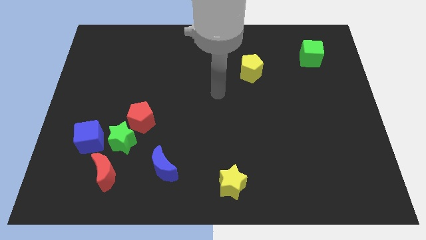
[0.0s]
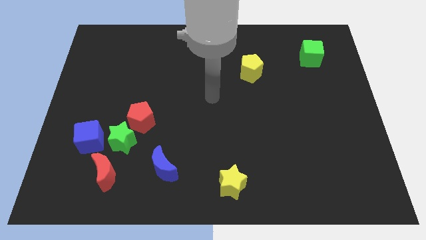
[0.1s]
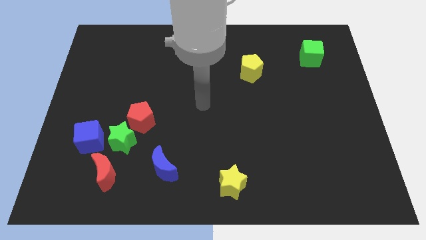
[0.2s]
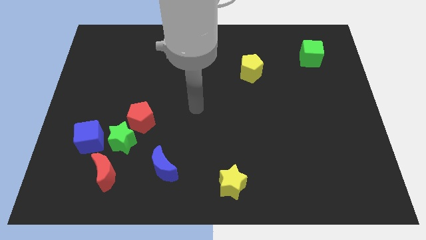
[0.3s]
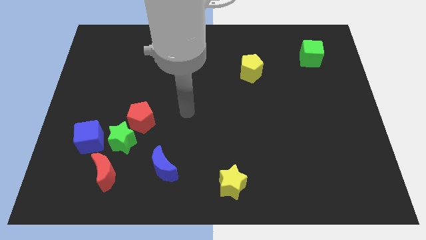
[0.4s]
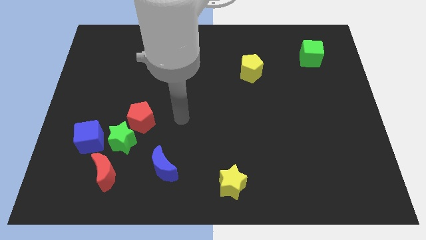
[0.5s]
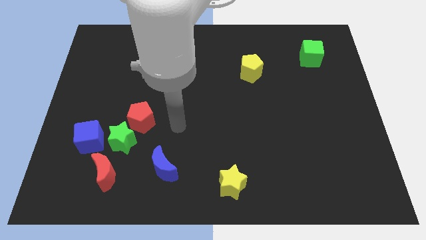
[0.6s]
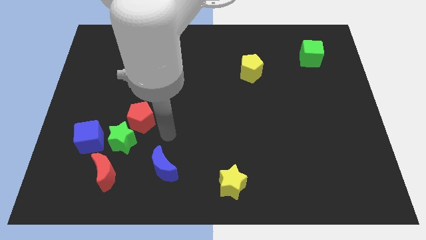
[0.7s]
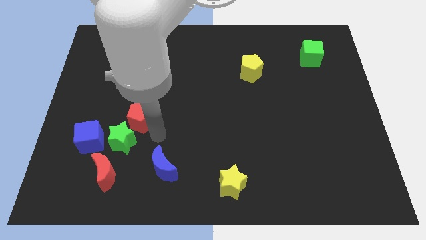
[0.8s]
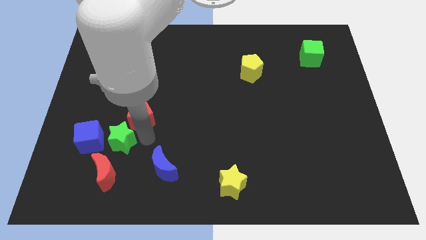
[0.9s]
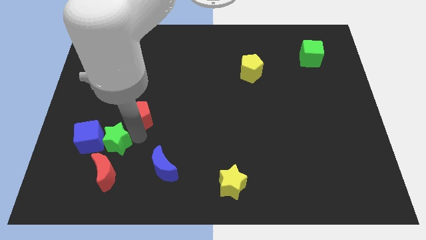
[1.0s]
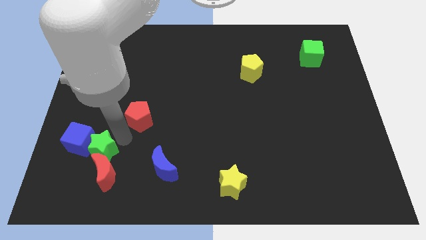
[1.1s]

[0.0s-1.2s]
separate the red pentagon from the green star

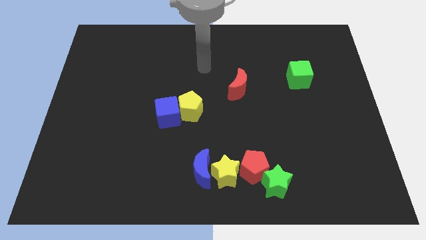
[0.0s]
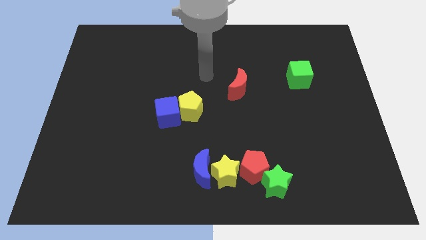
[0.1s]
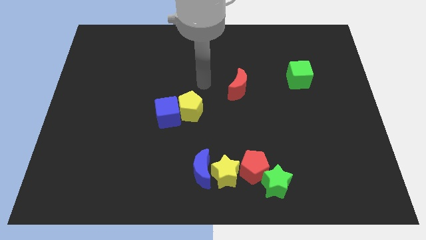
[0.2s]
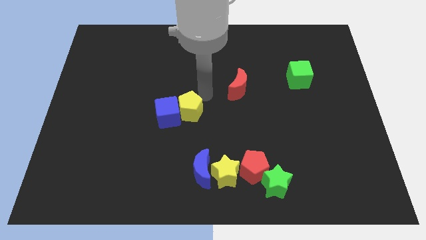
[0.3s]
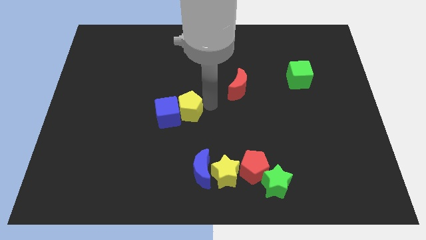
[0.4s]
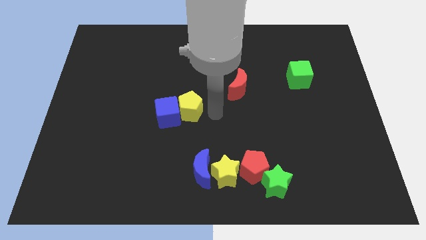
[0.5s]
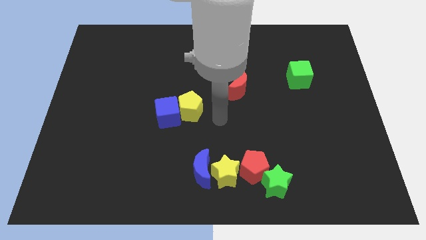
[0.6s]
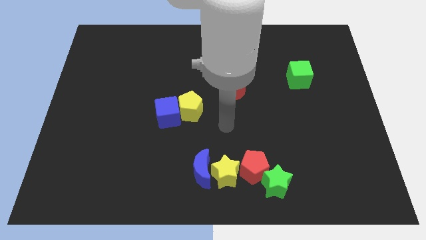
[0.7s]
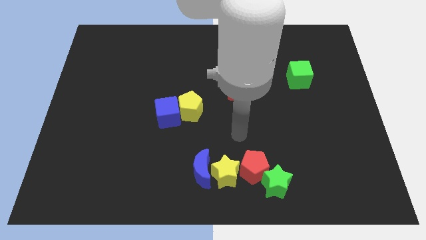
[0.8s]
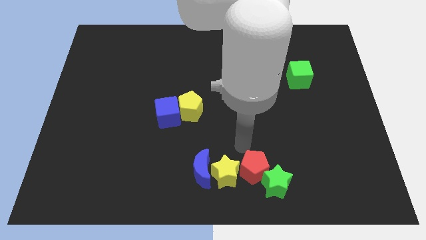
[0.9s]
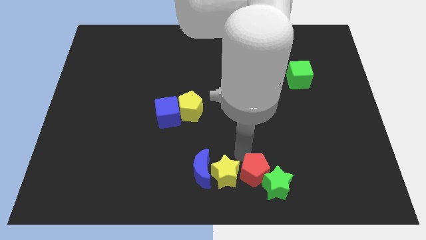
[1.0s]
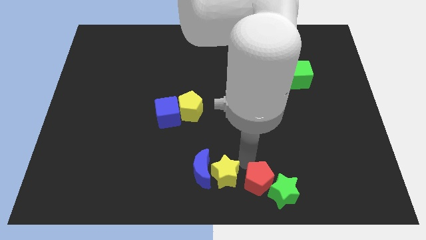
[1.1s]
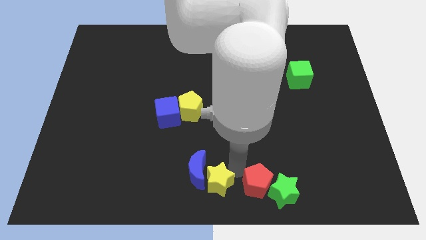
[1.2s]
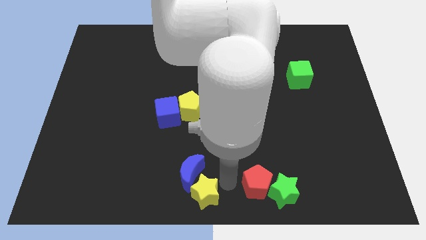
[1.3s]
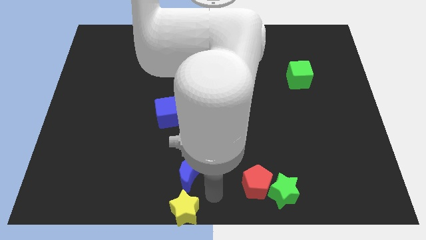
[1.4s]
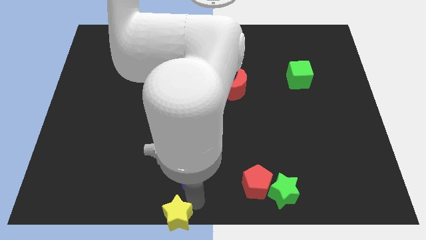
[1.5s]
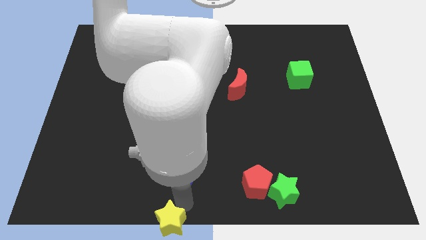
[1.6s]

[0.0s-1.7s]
move the blue moon away from the yellow star

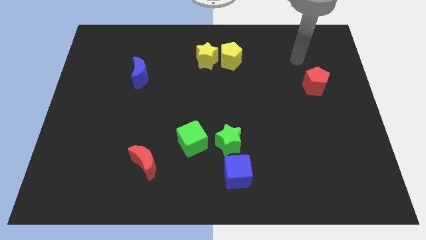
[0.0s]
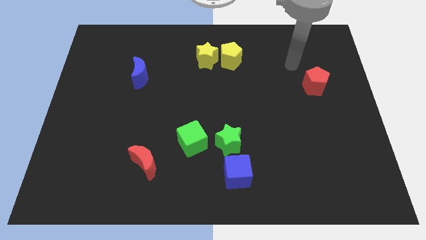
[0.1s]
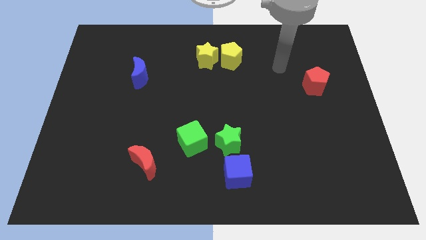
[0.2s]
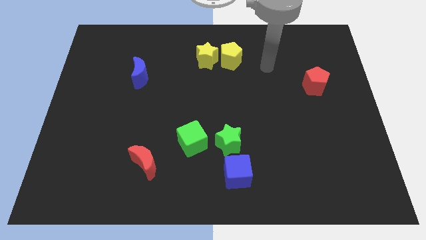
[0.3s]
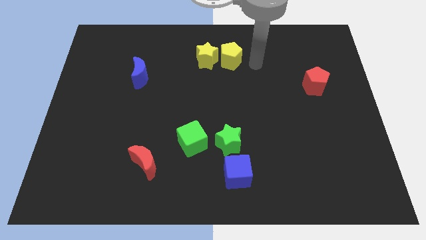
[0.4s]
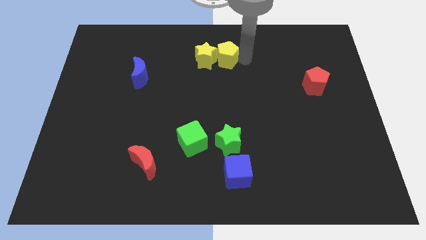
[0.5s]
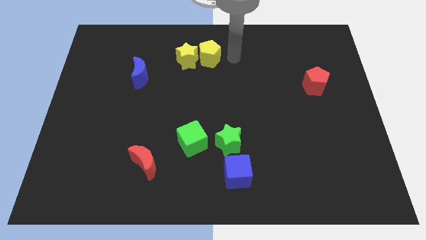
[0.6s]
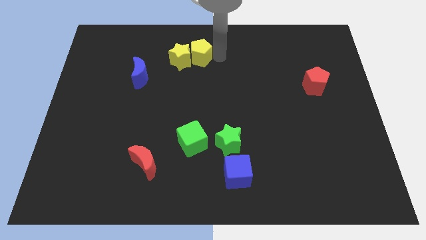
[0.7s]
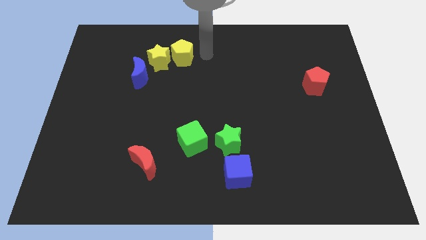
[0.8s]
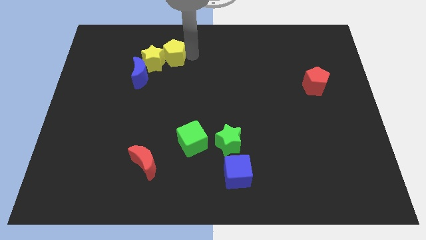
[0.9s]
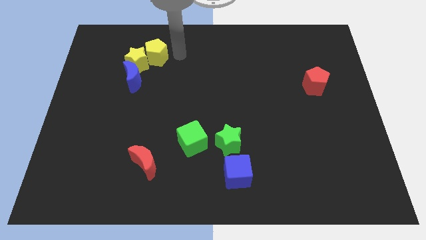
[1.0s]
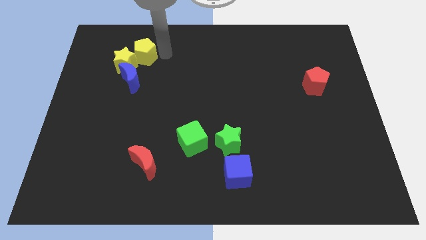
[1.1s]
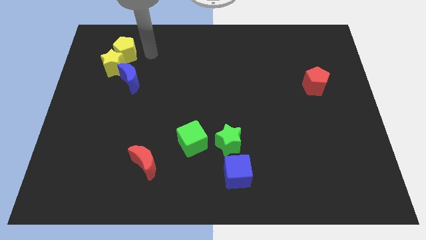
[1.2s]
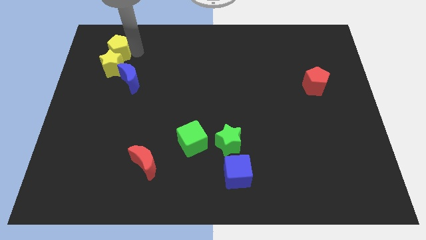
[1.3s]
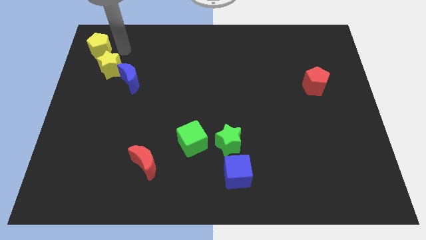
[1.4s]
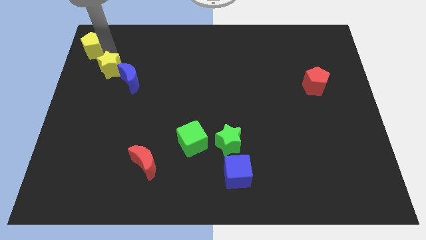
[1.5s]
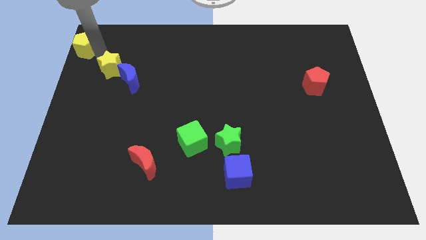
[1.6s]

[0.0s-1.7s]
move the yellow star away from the yellow pentagon

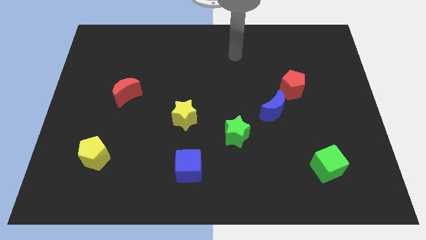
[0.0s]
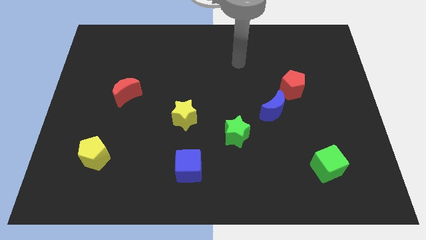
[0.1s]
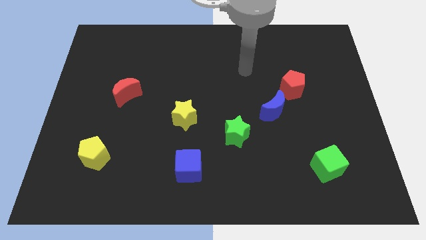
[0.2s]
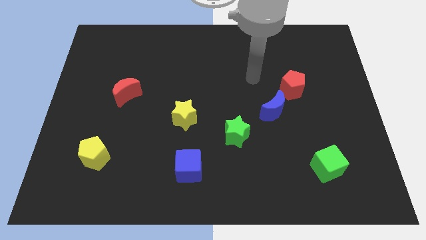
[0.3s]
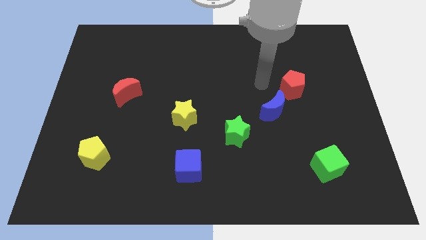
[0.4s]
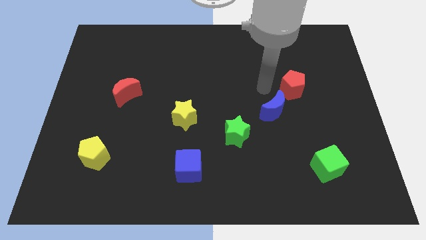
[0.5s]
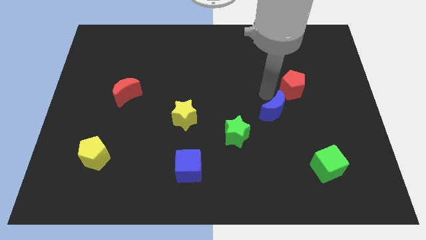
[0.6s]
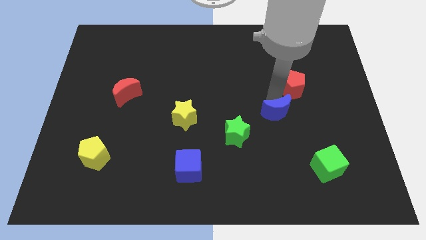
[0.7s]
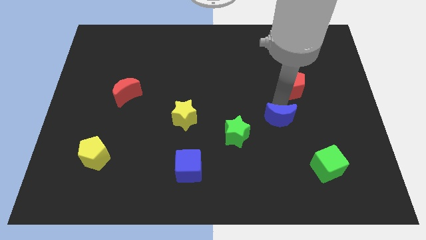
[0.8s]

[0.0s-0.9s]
move the red pentagon away from the blue moon

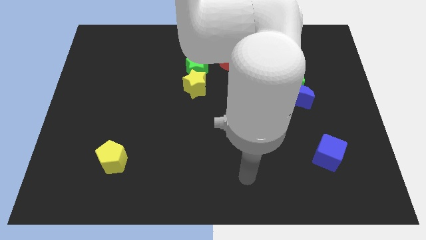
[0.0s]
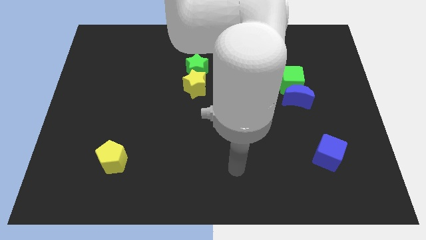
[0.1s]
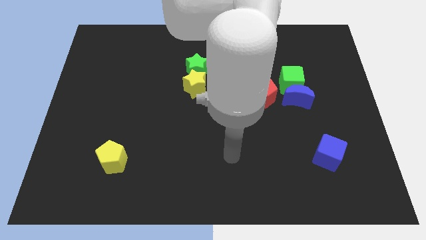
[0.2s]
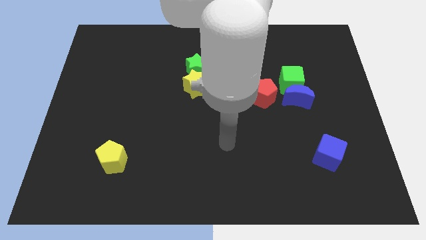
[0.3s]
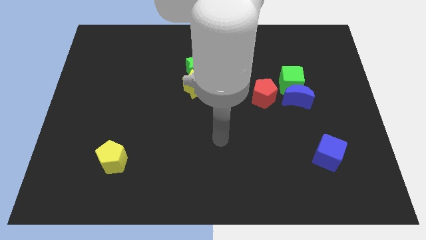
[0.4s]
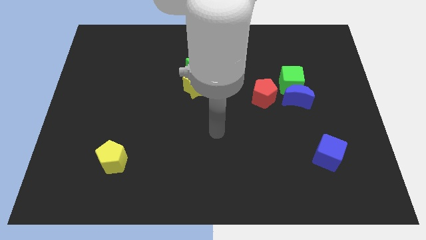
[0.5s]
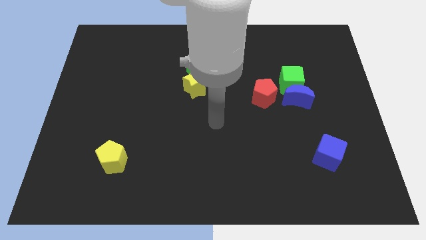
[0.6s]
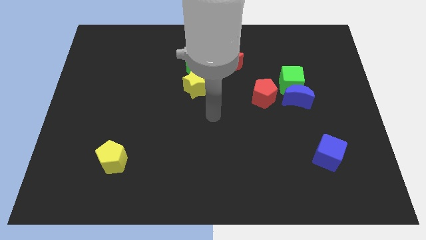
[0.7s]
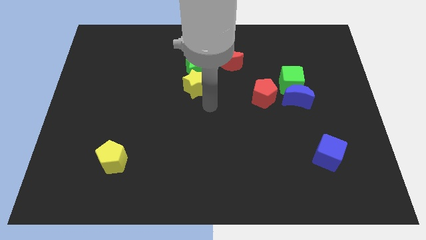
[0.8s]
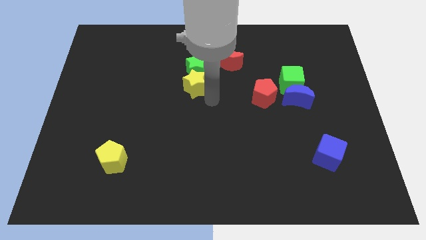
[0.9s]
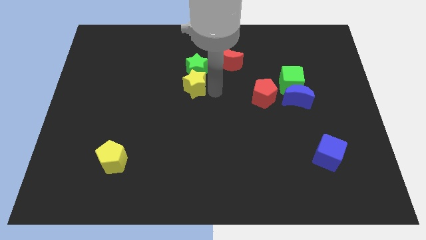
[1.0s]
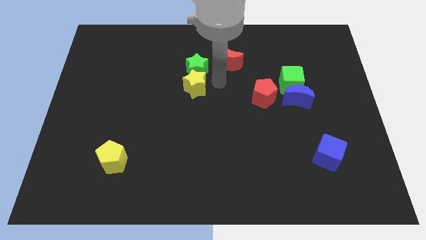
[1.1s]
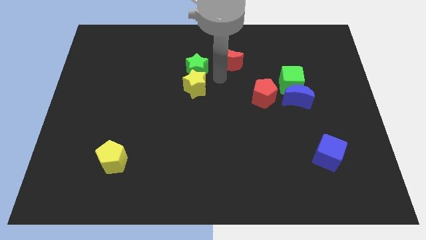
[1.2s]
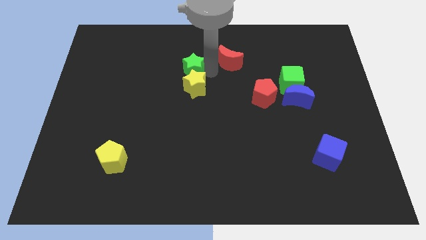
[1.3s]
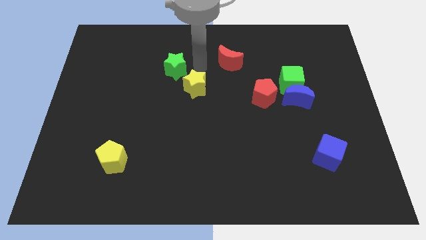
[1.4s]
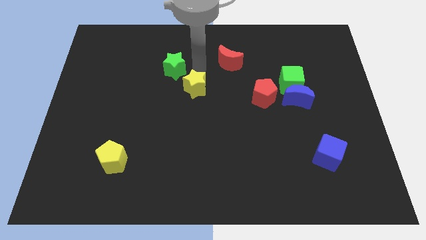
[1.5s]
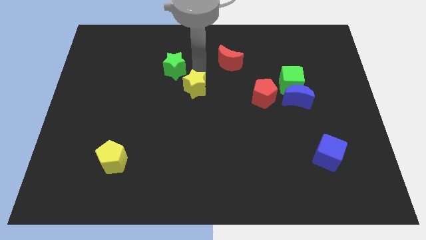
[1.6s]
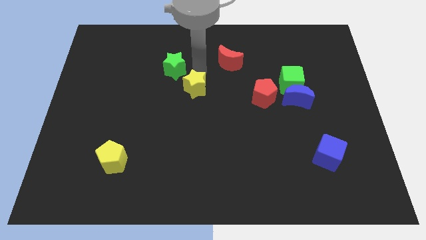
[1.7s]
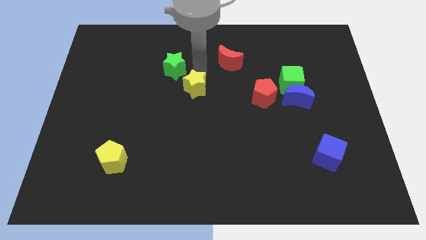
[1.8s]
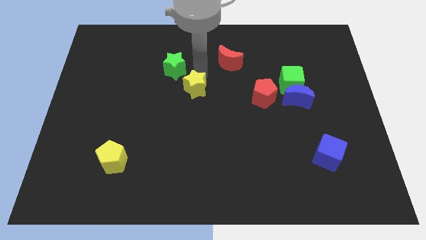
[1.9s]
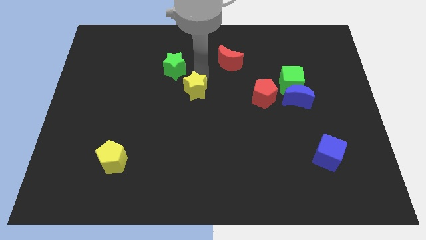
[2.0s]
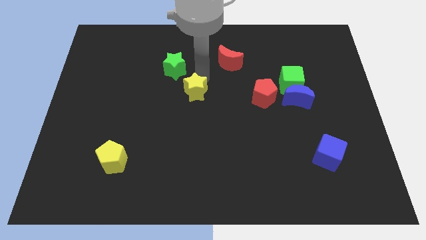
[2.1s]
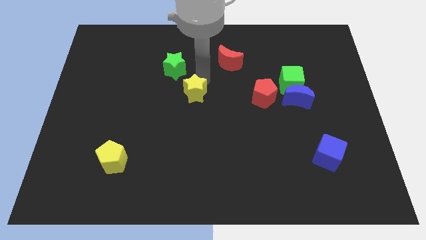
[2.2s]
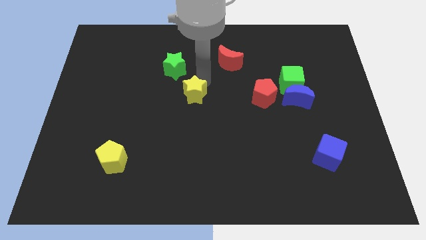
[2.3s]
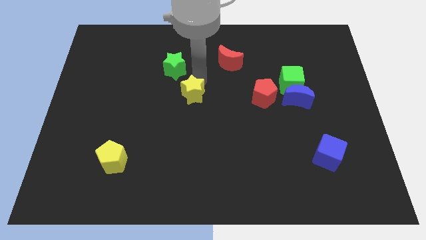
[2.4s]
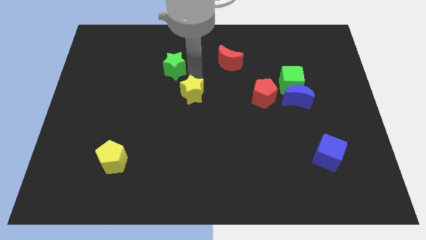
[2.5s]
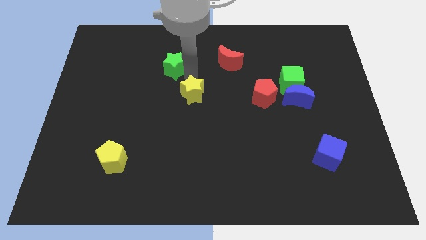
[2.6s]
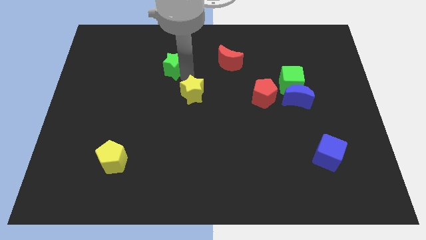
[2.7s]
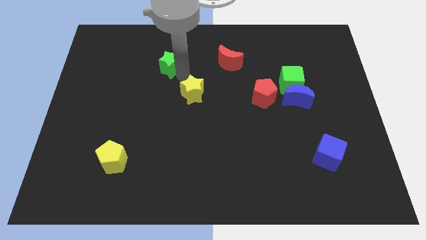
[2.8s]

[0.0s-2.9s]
separate the yellow star from the green star

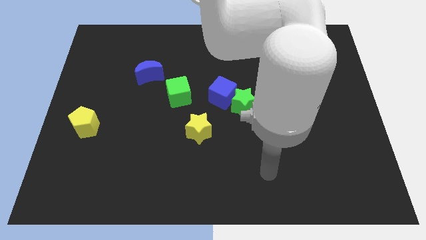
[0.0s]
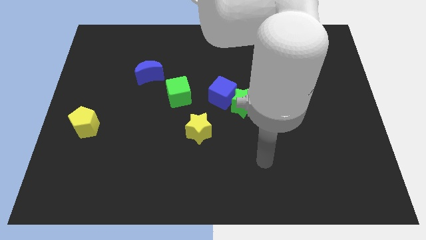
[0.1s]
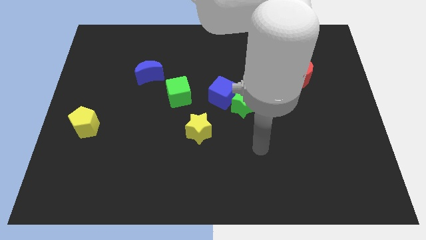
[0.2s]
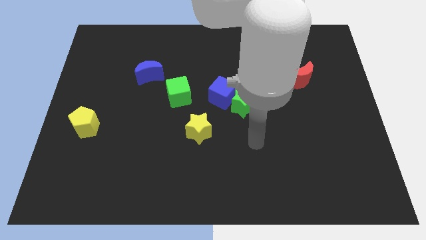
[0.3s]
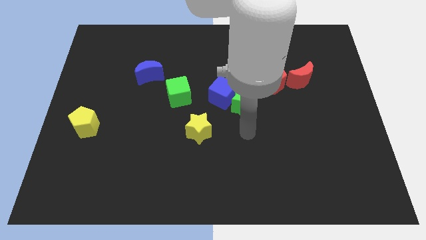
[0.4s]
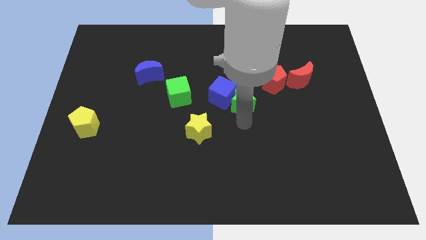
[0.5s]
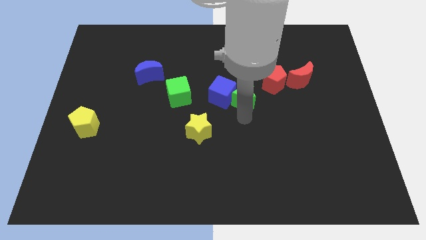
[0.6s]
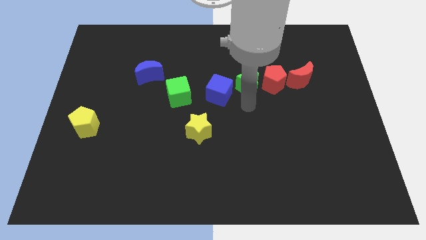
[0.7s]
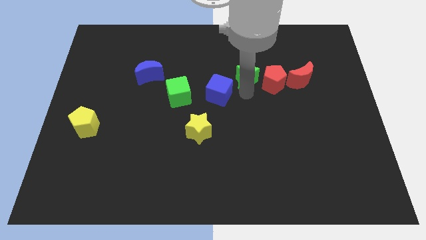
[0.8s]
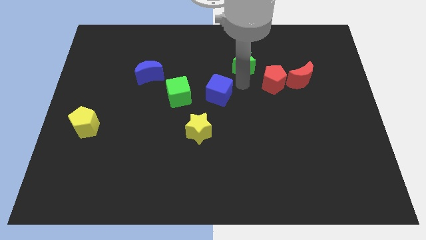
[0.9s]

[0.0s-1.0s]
move the blue cube away from the green star
